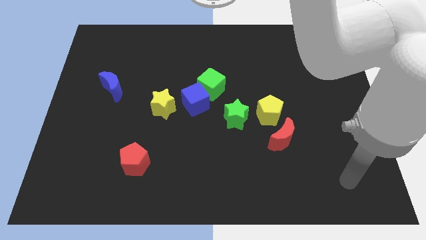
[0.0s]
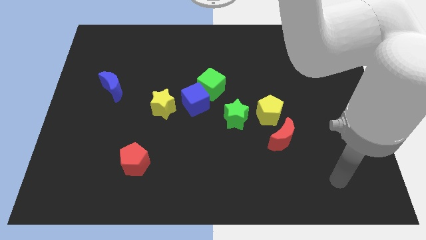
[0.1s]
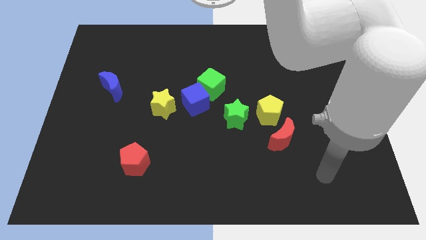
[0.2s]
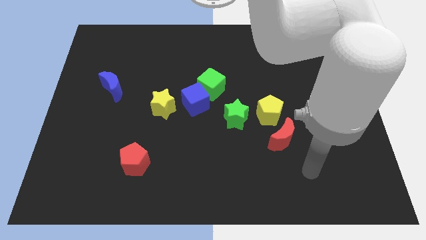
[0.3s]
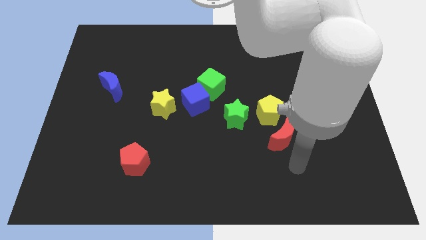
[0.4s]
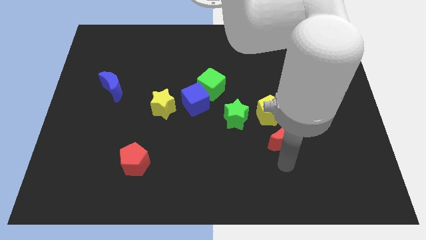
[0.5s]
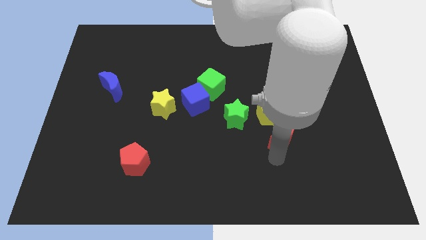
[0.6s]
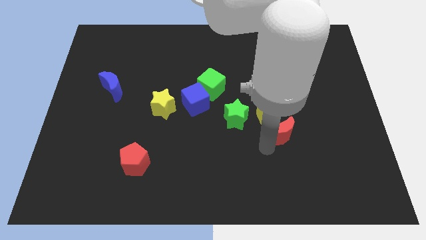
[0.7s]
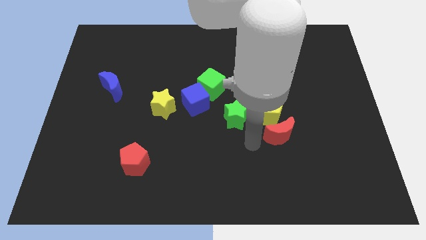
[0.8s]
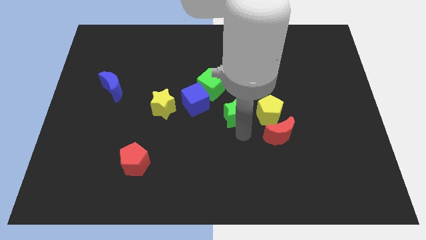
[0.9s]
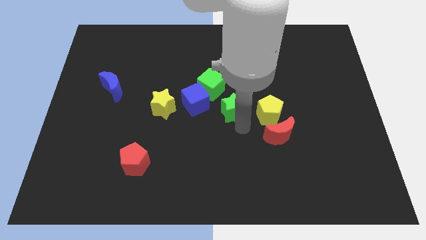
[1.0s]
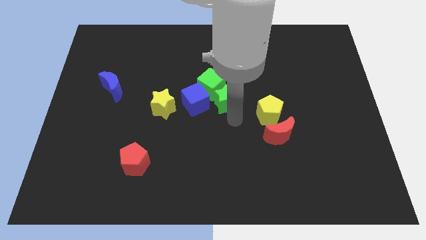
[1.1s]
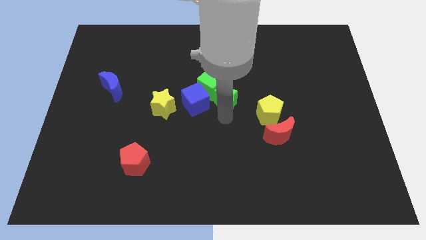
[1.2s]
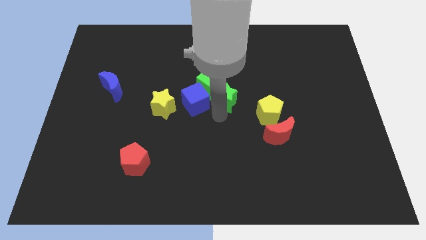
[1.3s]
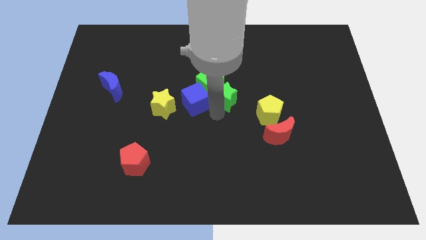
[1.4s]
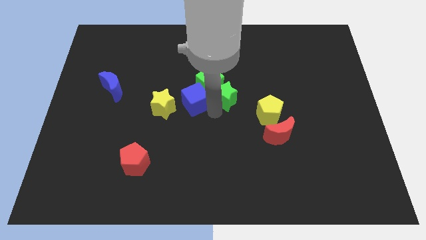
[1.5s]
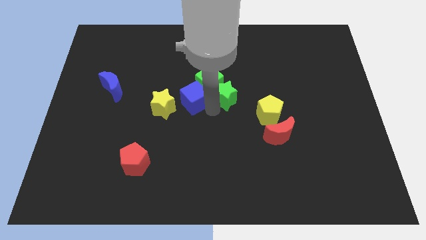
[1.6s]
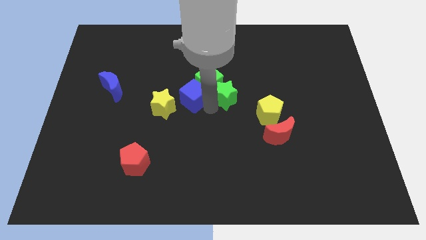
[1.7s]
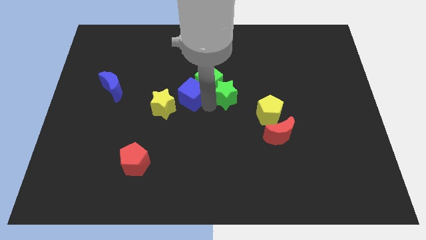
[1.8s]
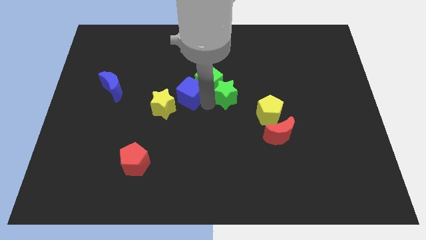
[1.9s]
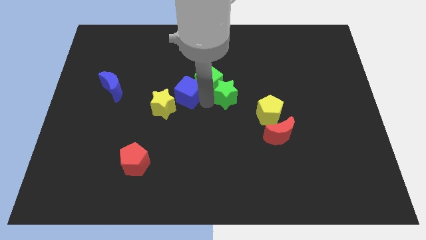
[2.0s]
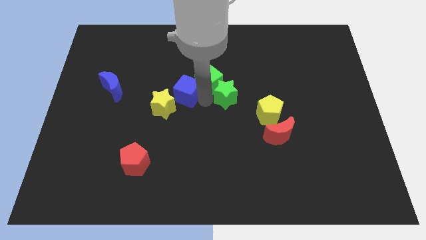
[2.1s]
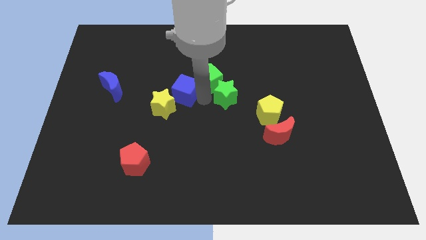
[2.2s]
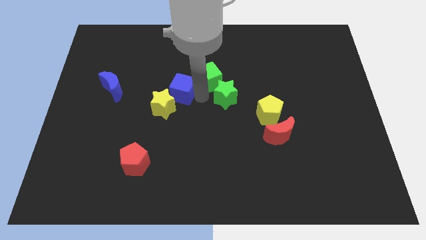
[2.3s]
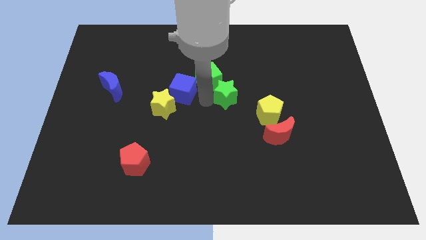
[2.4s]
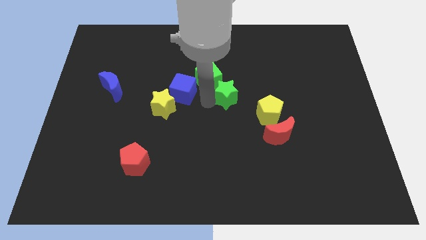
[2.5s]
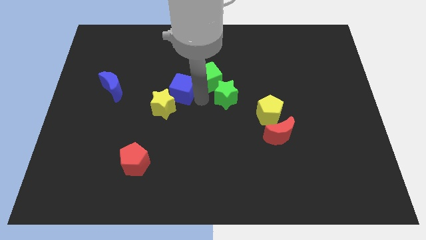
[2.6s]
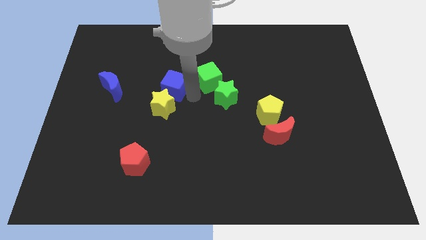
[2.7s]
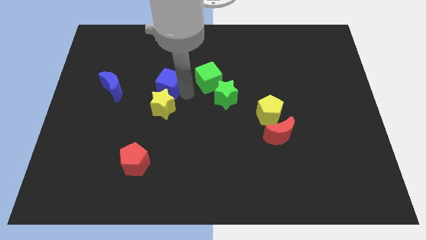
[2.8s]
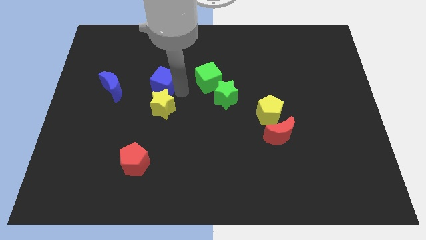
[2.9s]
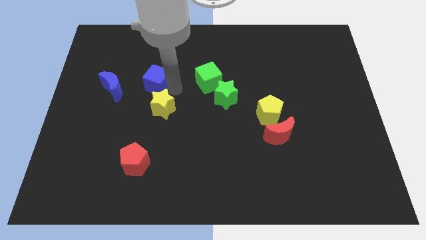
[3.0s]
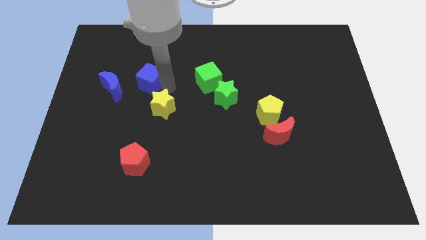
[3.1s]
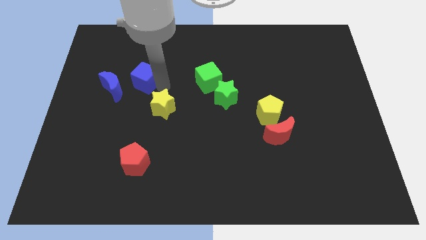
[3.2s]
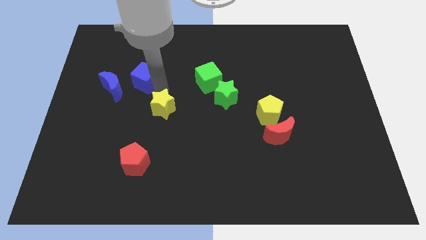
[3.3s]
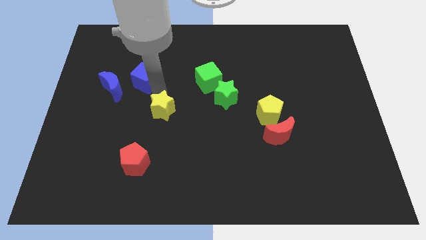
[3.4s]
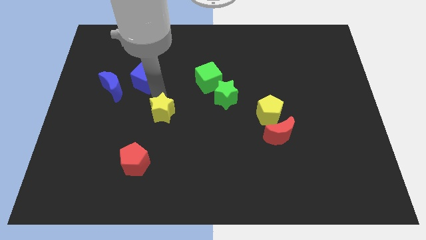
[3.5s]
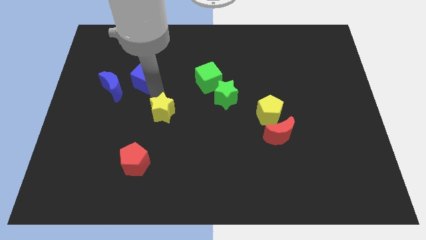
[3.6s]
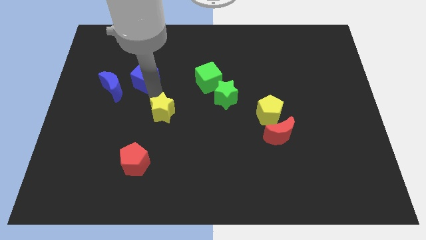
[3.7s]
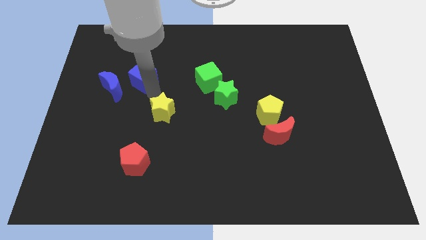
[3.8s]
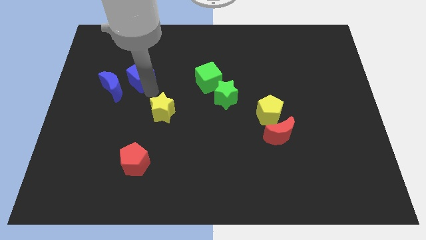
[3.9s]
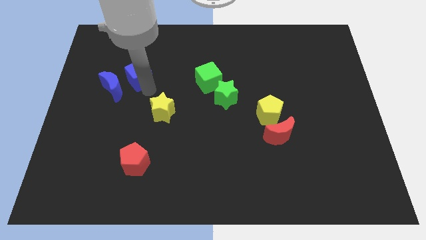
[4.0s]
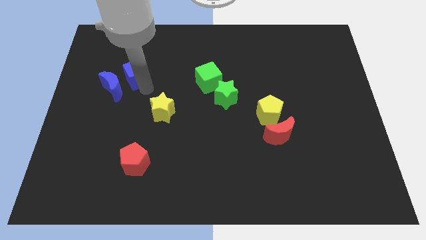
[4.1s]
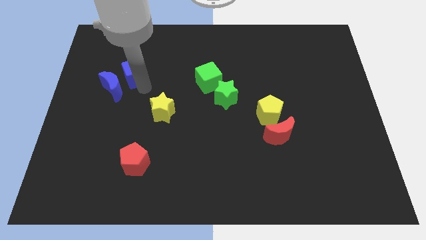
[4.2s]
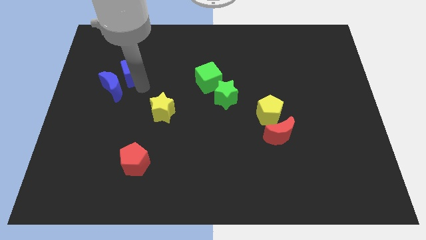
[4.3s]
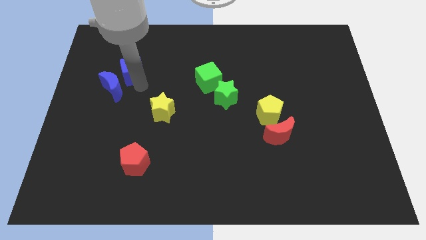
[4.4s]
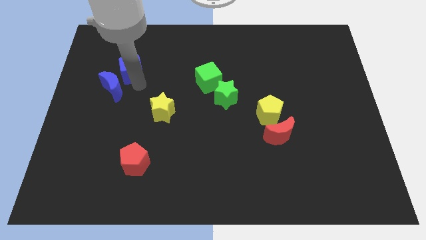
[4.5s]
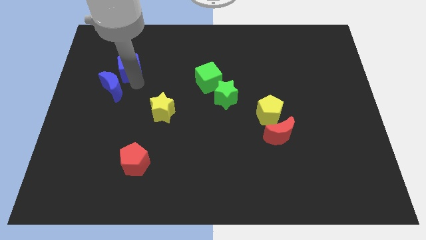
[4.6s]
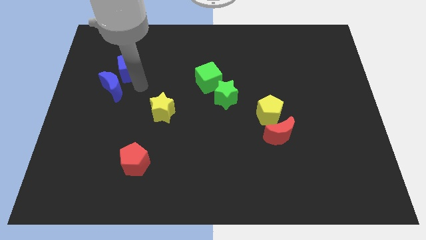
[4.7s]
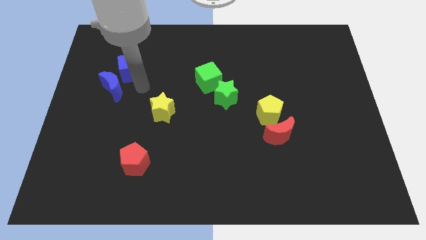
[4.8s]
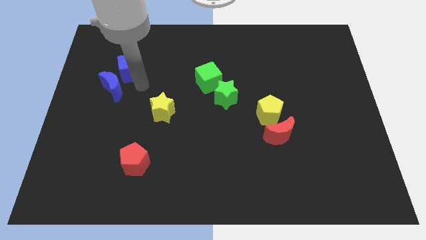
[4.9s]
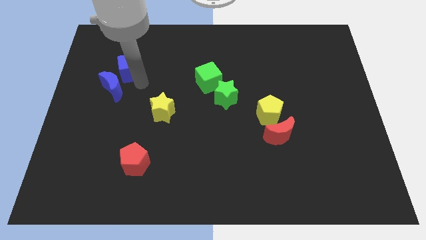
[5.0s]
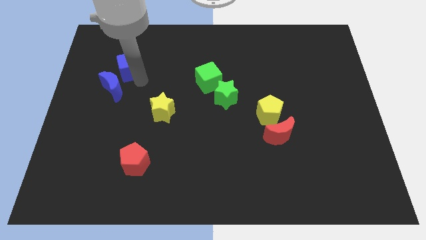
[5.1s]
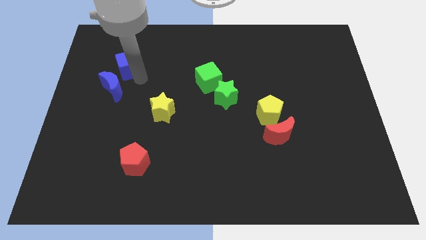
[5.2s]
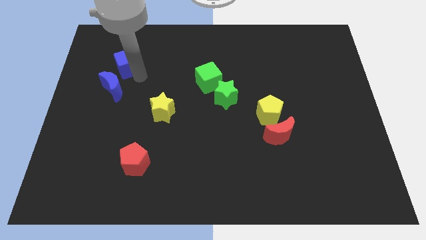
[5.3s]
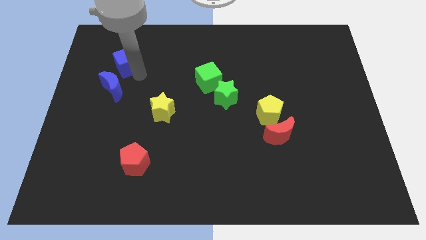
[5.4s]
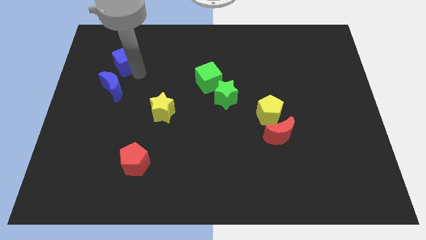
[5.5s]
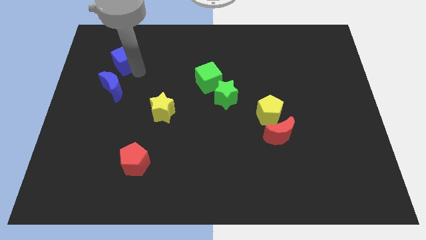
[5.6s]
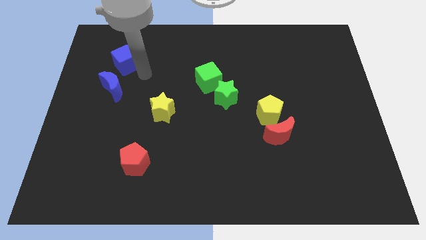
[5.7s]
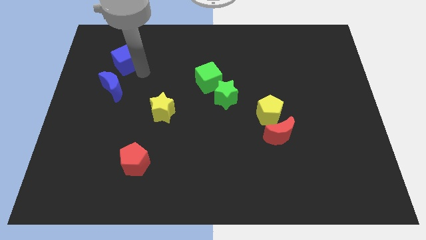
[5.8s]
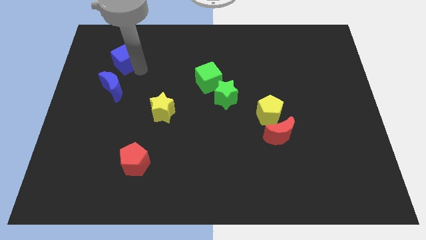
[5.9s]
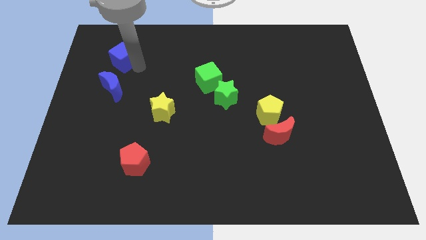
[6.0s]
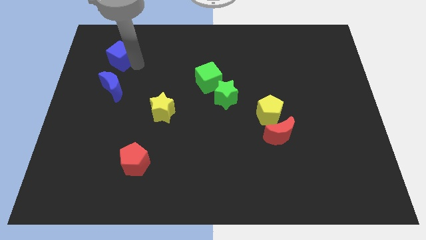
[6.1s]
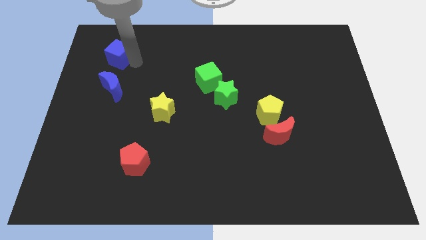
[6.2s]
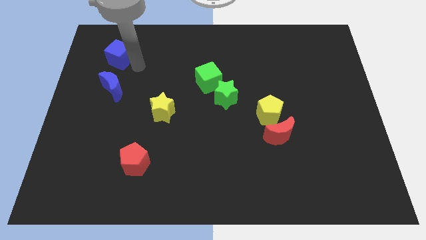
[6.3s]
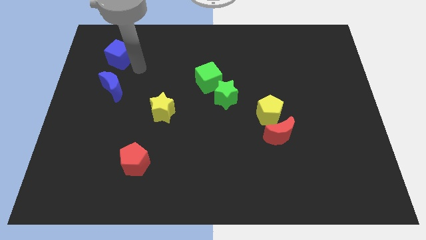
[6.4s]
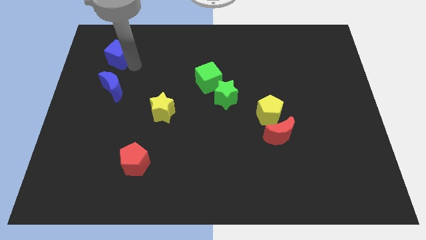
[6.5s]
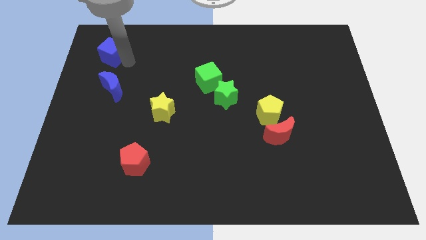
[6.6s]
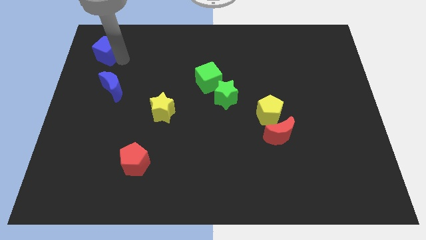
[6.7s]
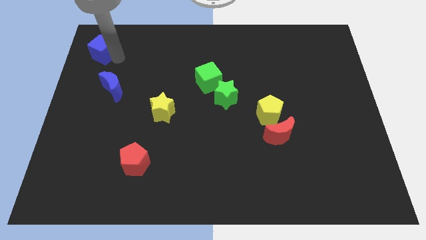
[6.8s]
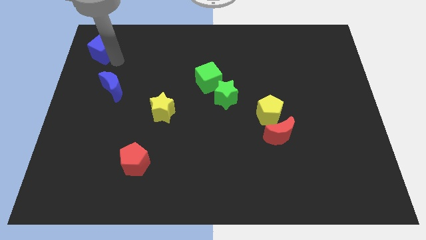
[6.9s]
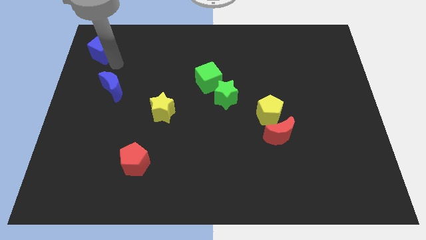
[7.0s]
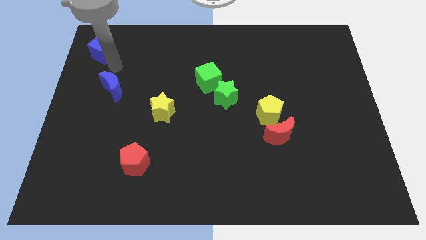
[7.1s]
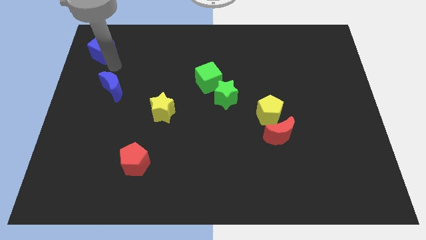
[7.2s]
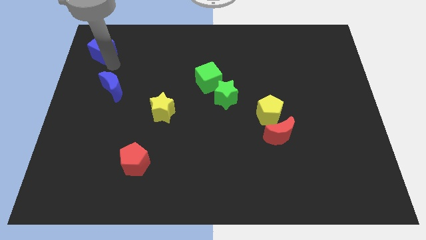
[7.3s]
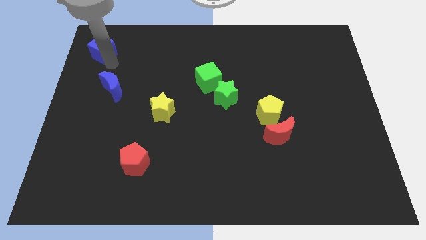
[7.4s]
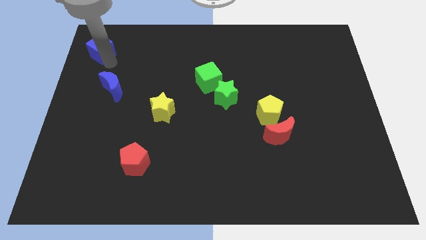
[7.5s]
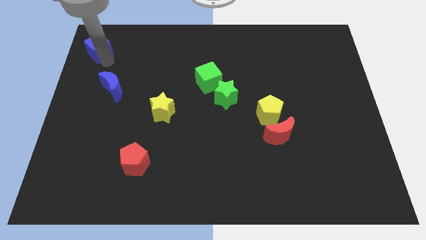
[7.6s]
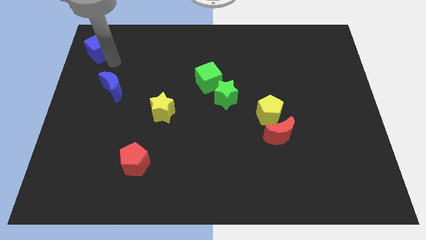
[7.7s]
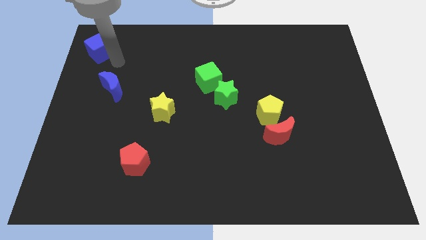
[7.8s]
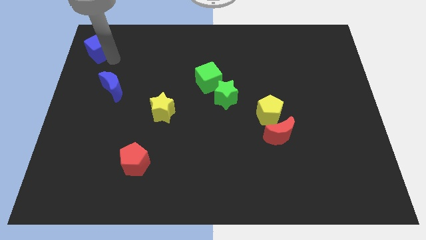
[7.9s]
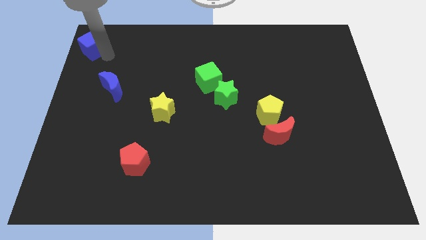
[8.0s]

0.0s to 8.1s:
slide the blue cube to the top left corner
